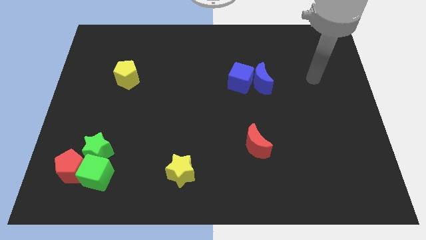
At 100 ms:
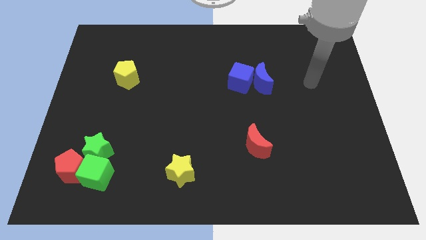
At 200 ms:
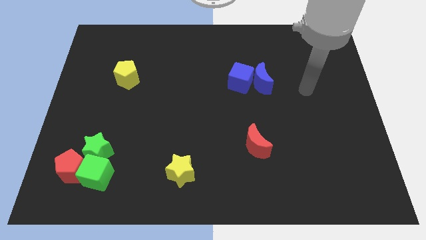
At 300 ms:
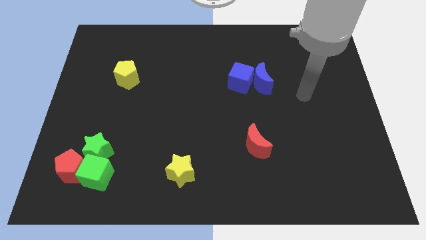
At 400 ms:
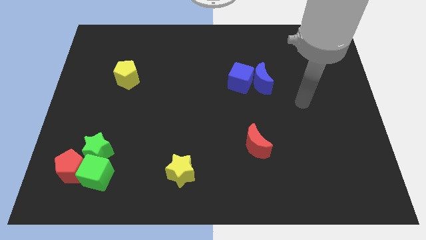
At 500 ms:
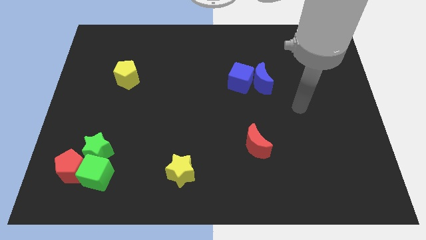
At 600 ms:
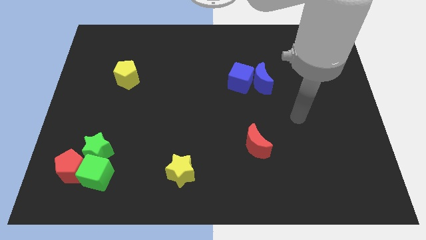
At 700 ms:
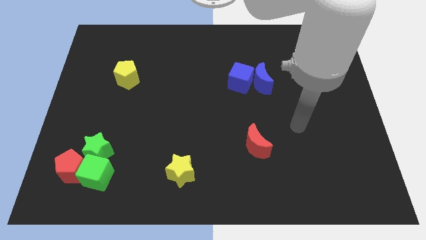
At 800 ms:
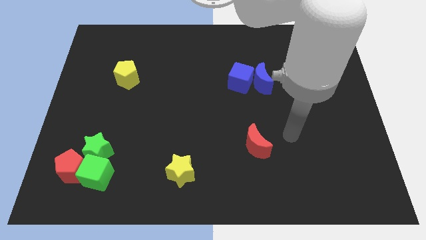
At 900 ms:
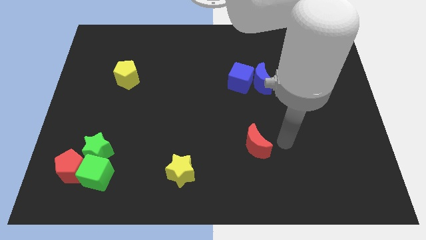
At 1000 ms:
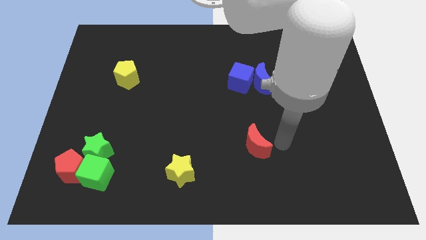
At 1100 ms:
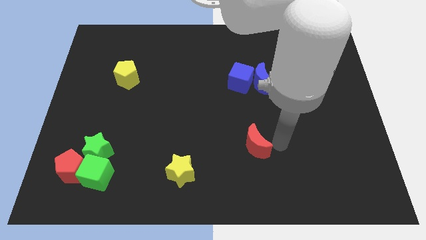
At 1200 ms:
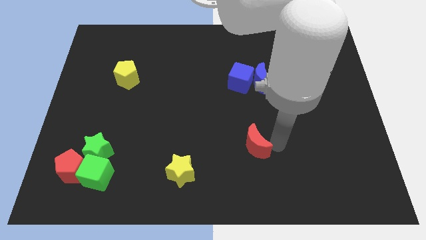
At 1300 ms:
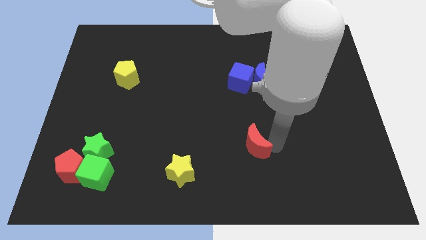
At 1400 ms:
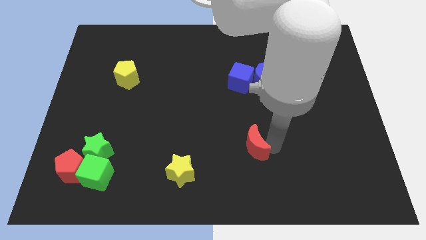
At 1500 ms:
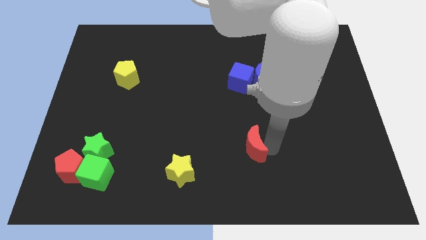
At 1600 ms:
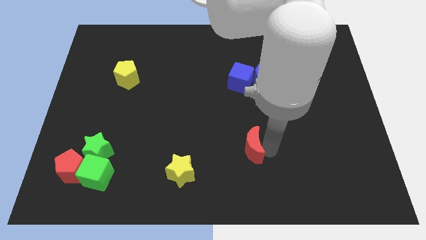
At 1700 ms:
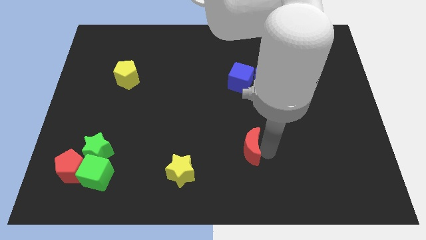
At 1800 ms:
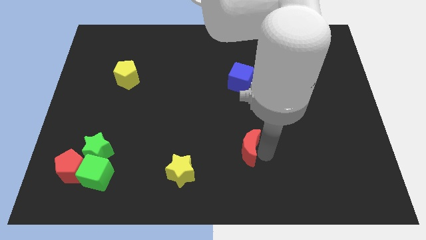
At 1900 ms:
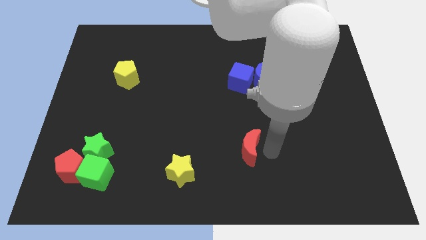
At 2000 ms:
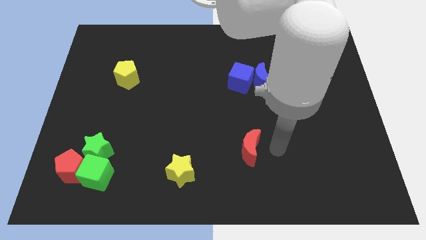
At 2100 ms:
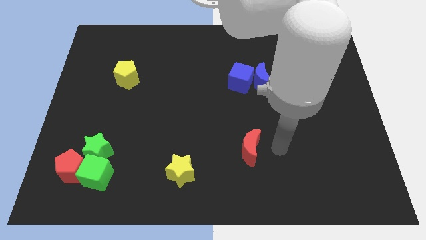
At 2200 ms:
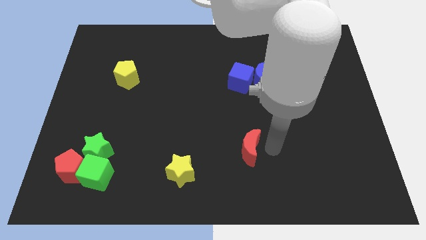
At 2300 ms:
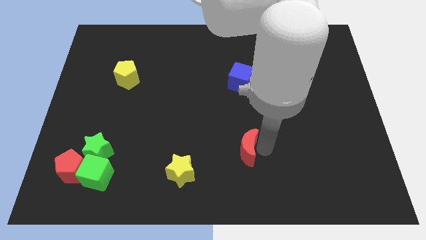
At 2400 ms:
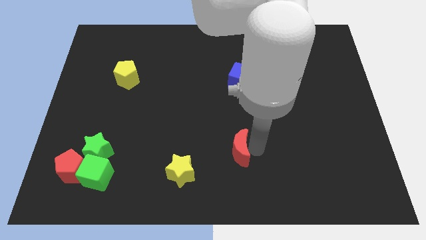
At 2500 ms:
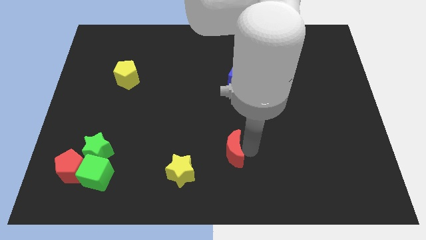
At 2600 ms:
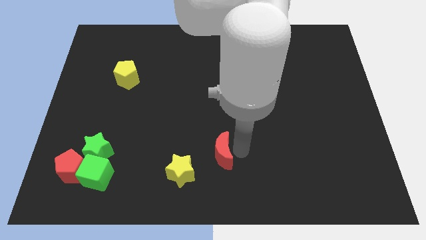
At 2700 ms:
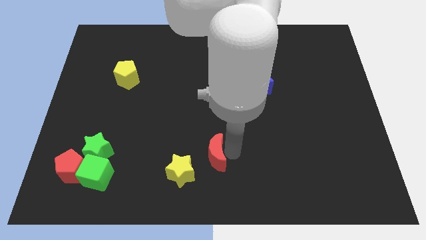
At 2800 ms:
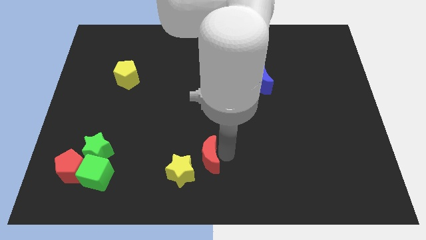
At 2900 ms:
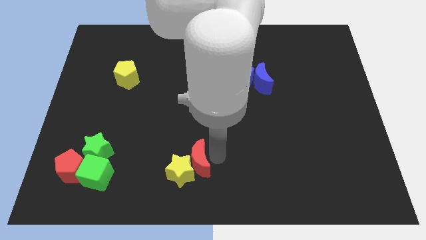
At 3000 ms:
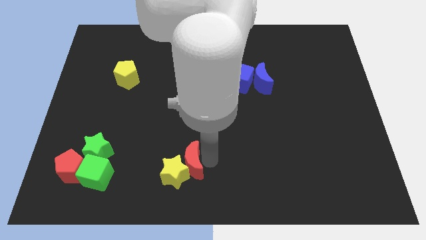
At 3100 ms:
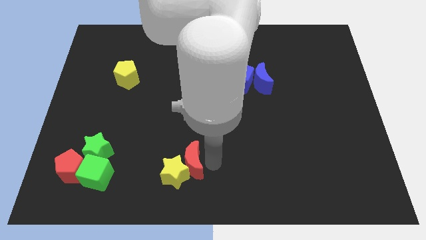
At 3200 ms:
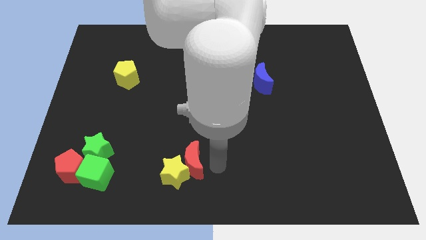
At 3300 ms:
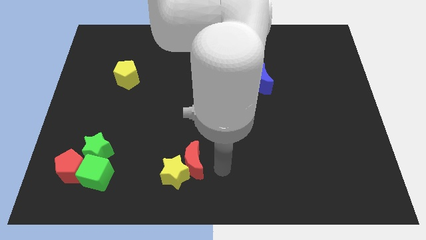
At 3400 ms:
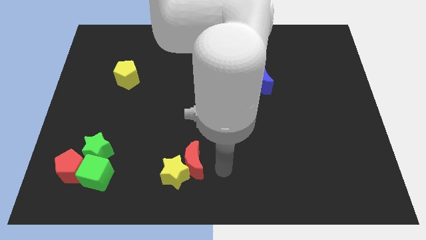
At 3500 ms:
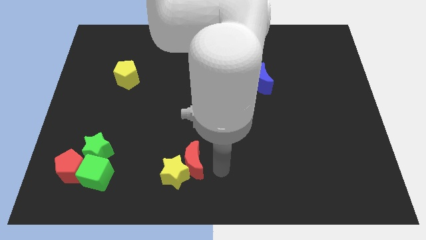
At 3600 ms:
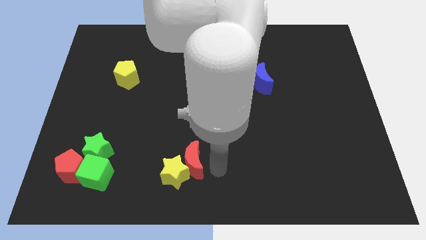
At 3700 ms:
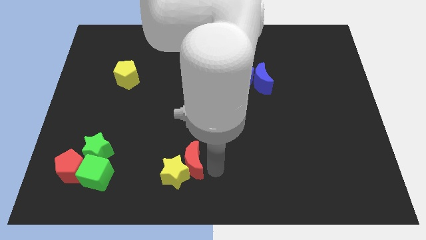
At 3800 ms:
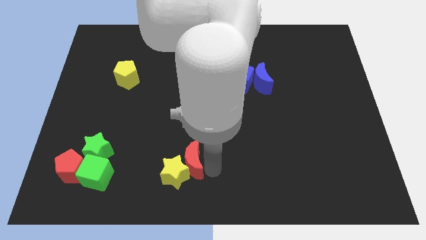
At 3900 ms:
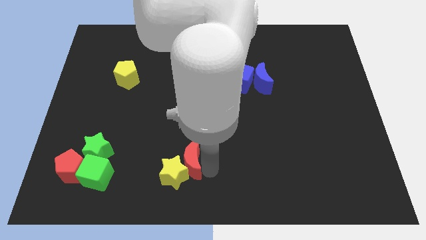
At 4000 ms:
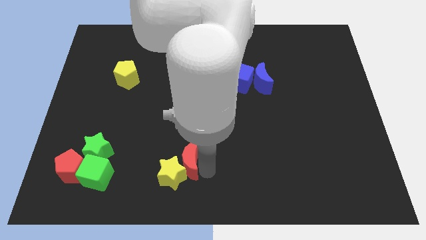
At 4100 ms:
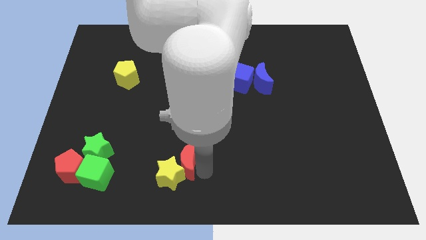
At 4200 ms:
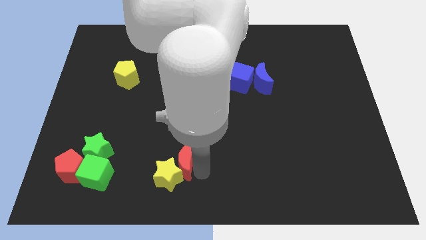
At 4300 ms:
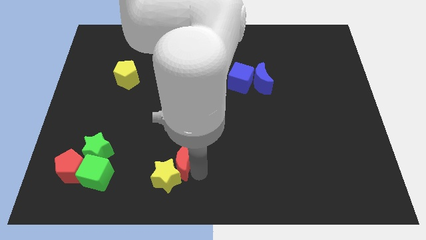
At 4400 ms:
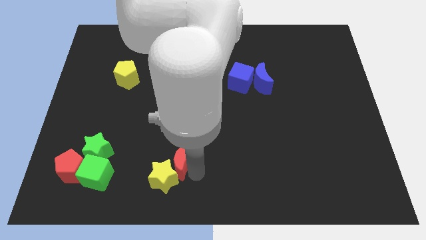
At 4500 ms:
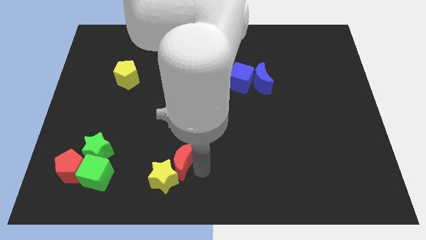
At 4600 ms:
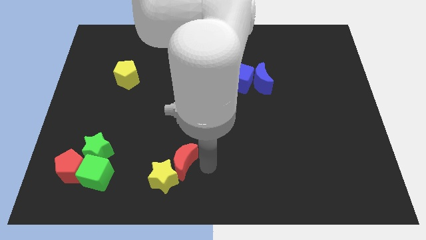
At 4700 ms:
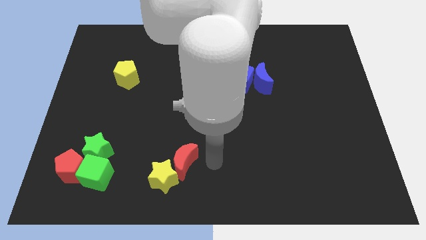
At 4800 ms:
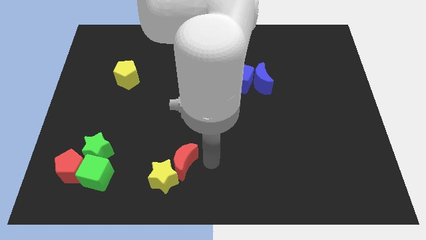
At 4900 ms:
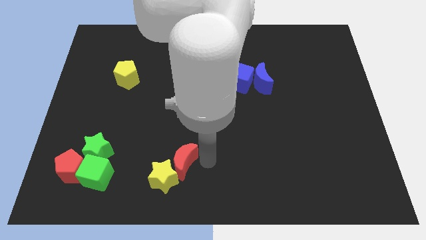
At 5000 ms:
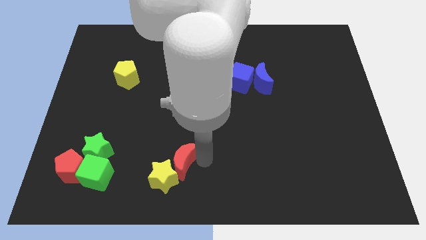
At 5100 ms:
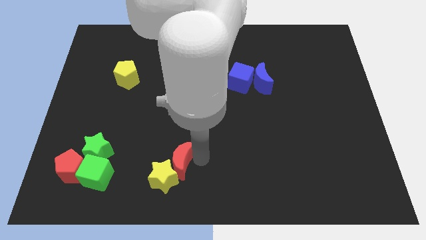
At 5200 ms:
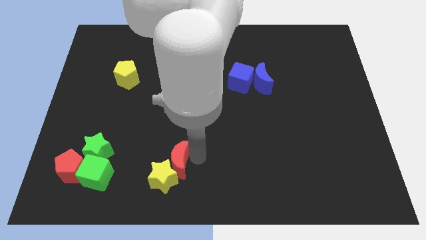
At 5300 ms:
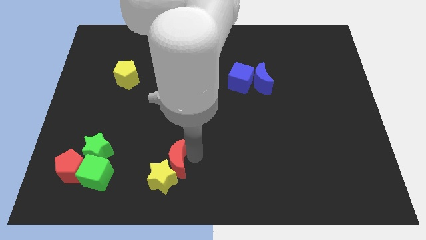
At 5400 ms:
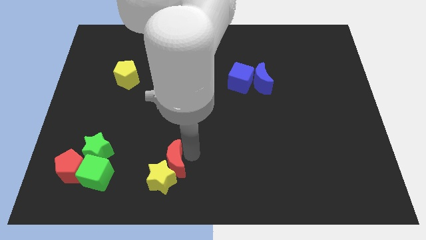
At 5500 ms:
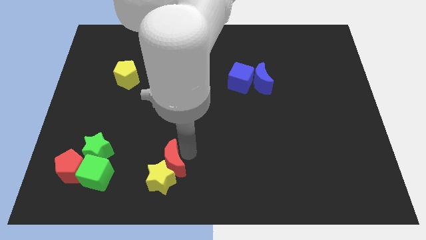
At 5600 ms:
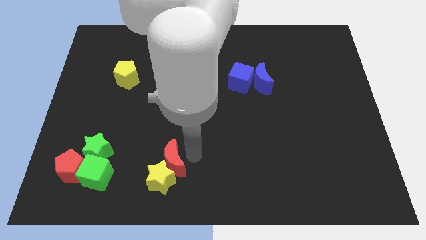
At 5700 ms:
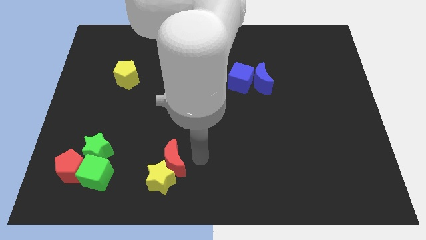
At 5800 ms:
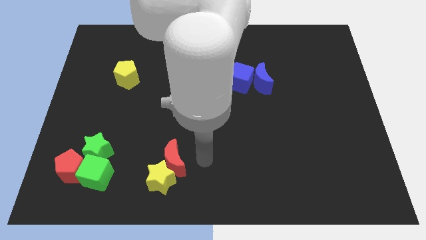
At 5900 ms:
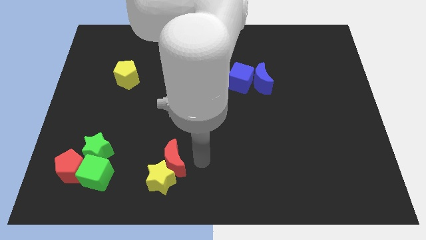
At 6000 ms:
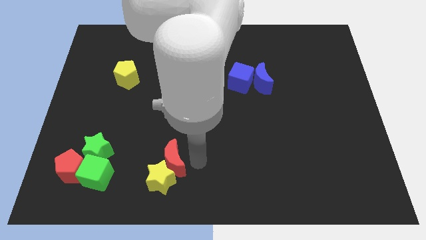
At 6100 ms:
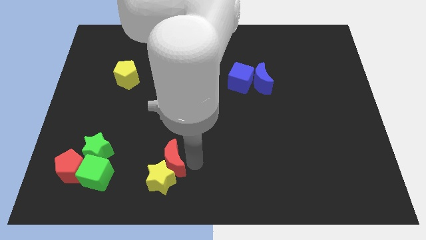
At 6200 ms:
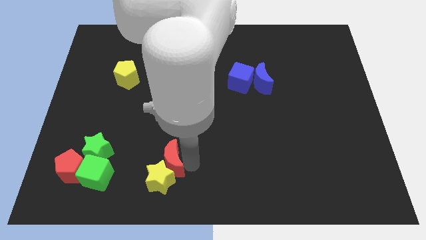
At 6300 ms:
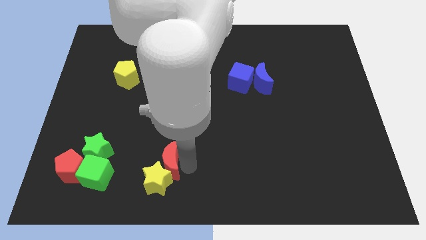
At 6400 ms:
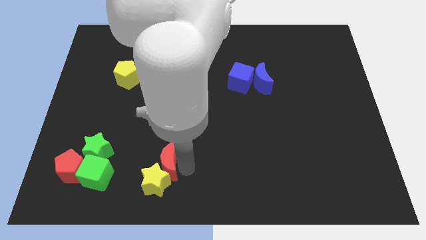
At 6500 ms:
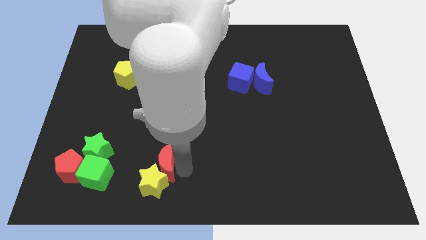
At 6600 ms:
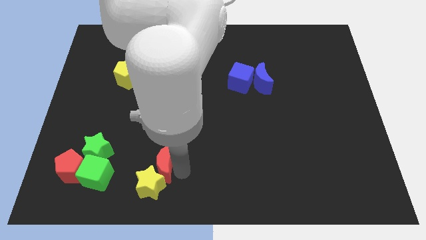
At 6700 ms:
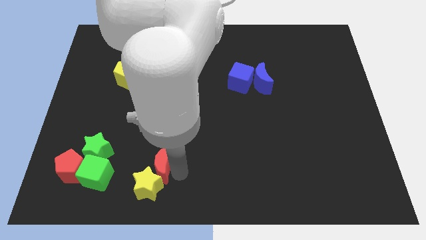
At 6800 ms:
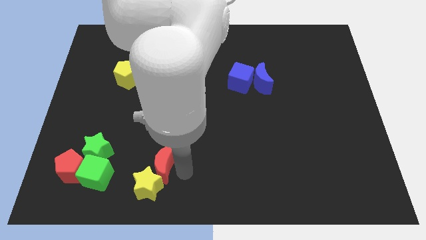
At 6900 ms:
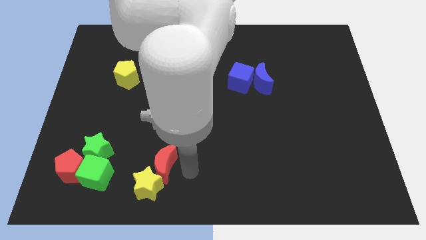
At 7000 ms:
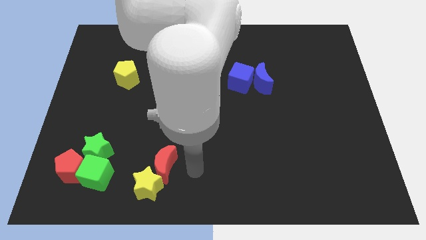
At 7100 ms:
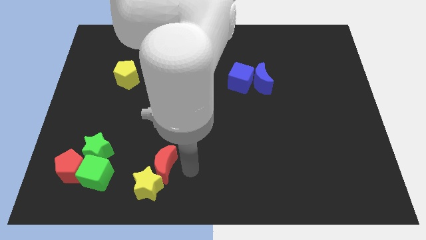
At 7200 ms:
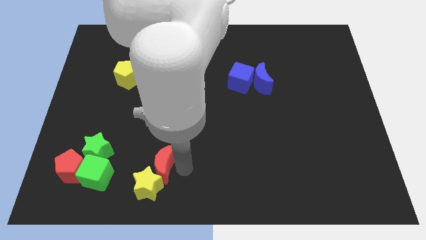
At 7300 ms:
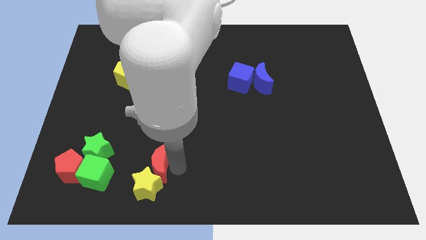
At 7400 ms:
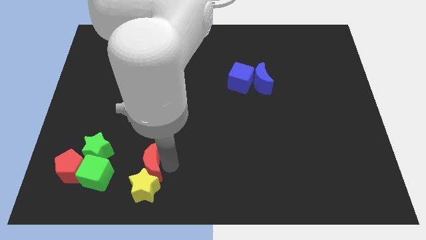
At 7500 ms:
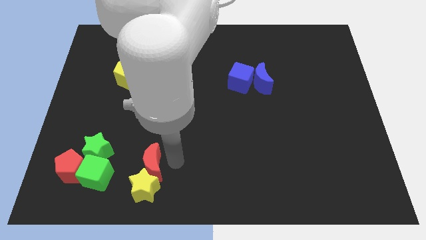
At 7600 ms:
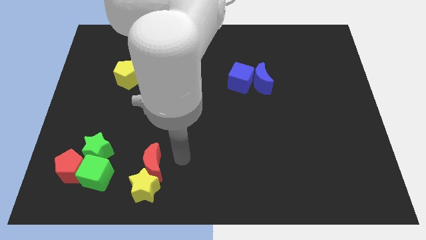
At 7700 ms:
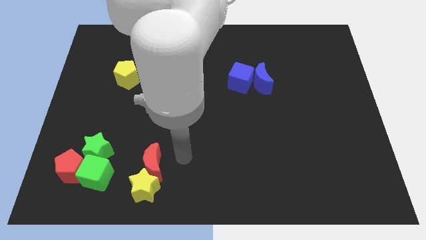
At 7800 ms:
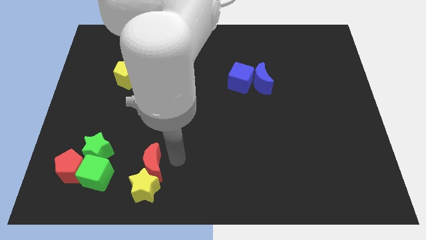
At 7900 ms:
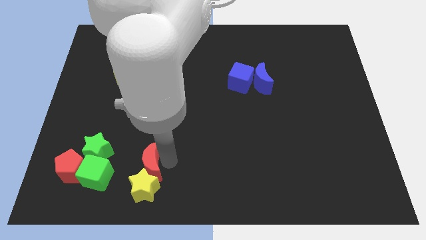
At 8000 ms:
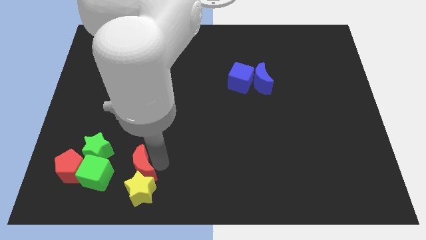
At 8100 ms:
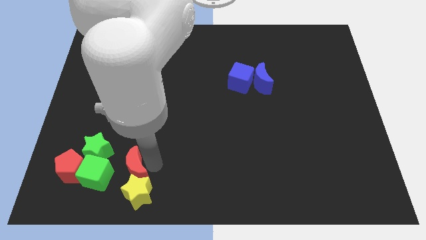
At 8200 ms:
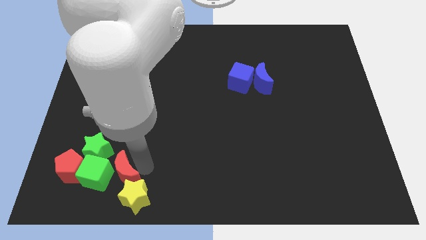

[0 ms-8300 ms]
put the red moon to the green cube
